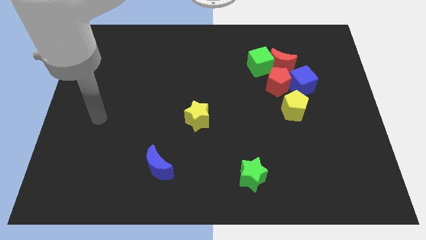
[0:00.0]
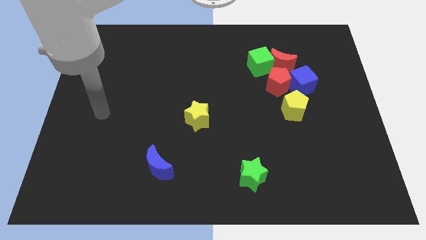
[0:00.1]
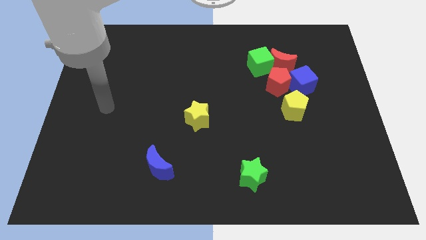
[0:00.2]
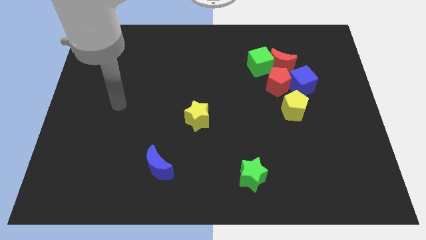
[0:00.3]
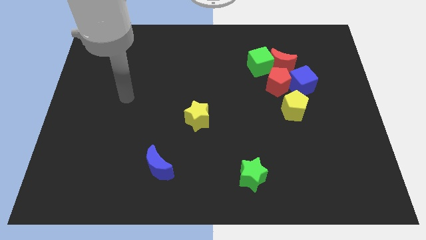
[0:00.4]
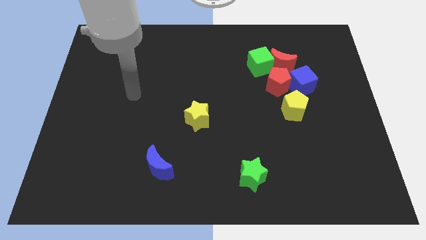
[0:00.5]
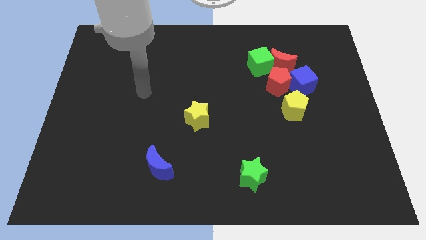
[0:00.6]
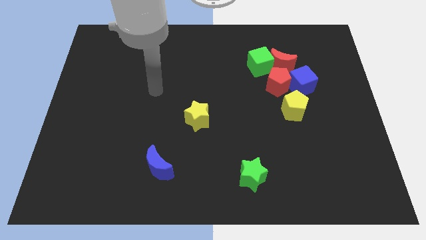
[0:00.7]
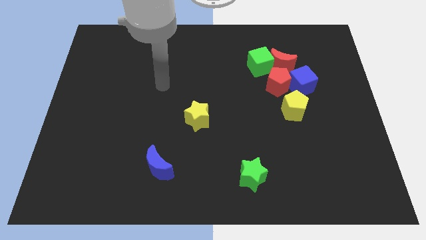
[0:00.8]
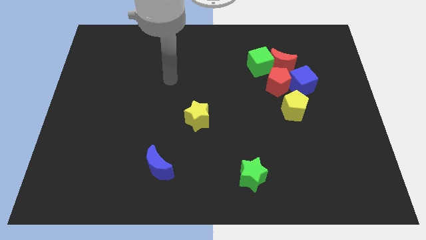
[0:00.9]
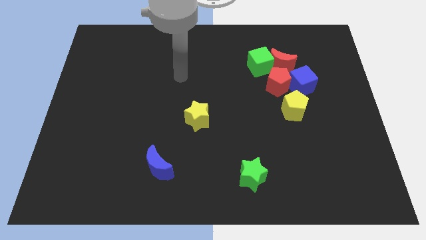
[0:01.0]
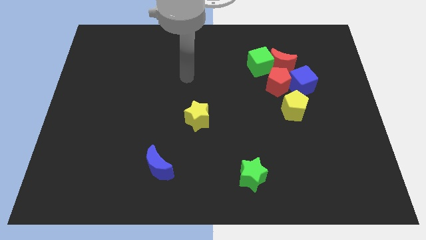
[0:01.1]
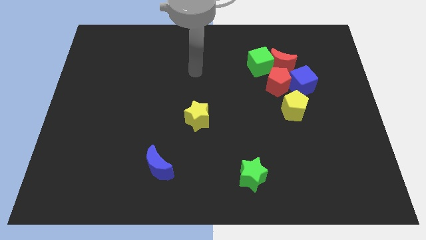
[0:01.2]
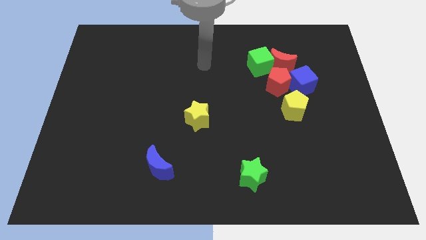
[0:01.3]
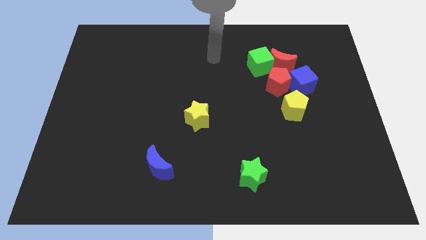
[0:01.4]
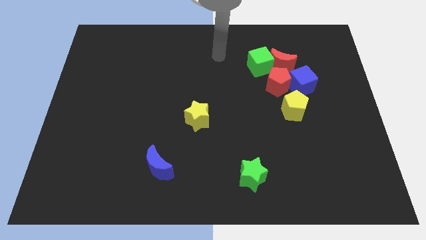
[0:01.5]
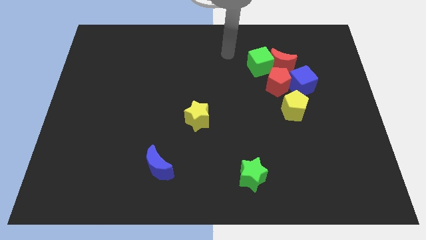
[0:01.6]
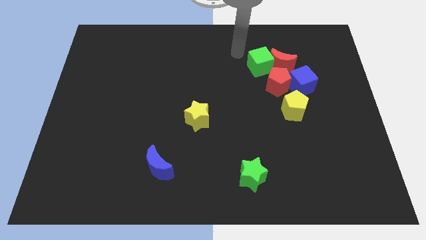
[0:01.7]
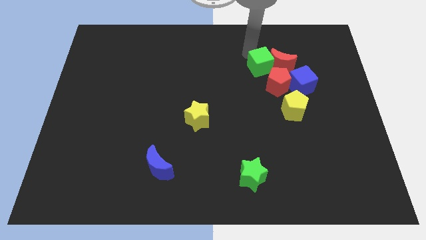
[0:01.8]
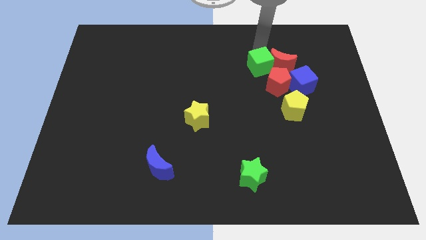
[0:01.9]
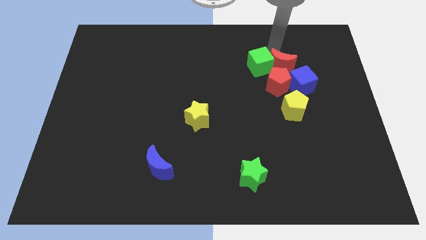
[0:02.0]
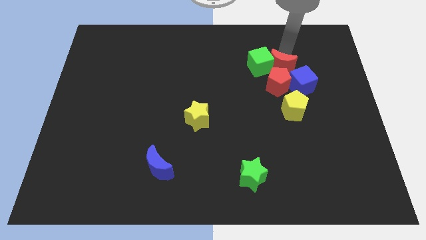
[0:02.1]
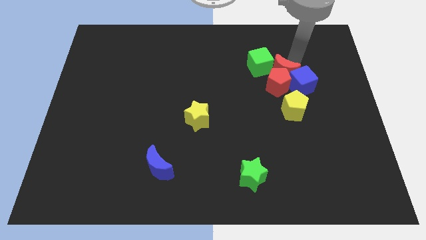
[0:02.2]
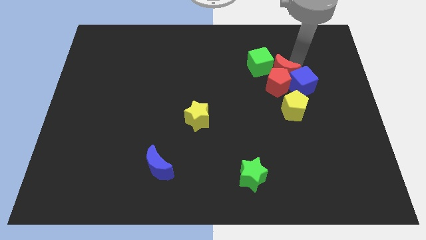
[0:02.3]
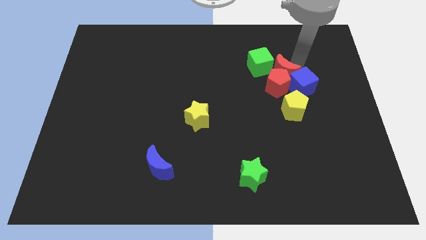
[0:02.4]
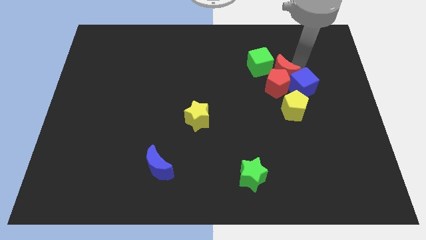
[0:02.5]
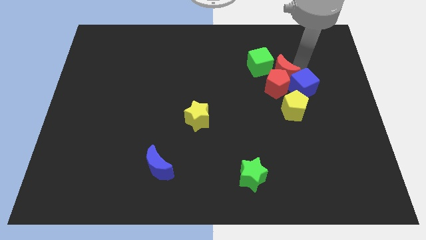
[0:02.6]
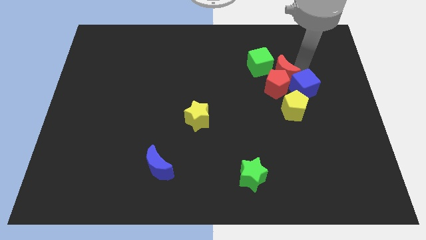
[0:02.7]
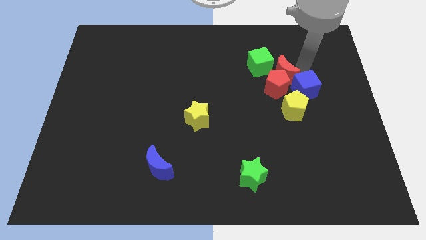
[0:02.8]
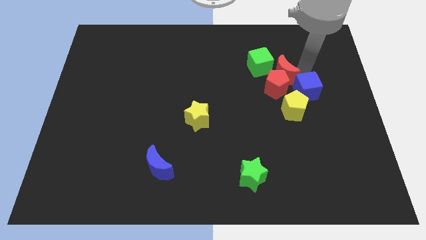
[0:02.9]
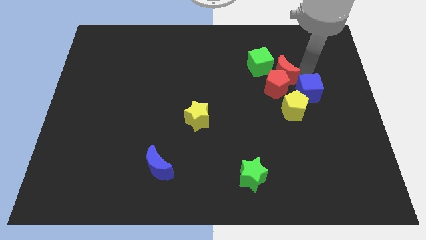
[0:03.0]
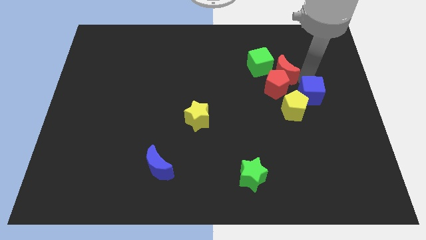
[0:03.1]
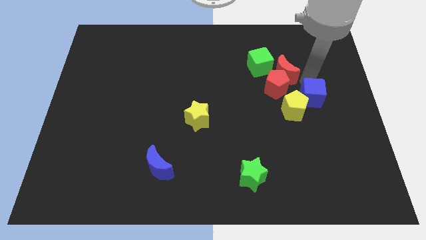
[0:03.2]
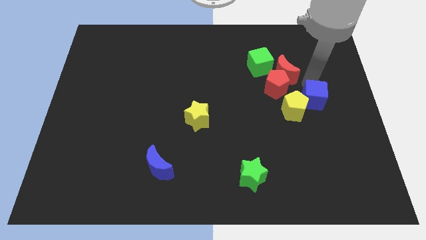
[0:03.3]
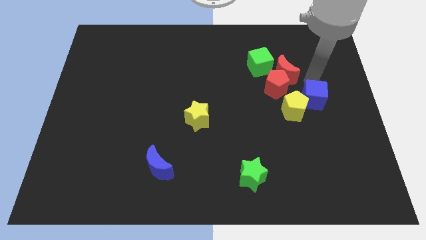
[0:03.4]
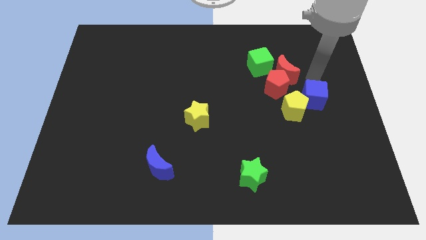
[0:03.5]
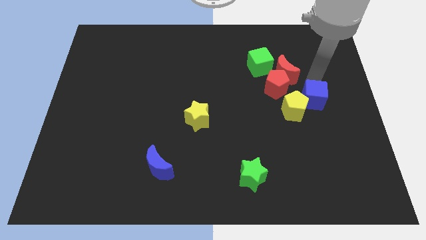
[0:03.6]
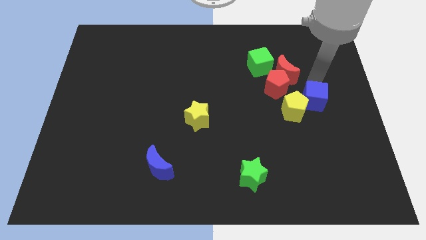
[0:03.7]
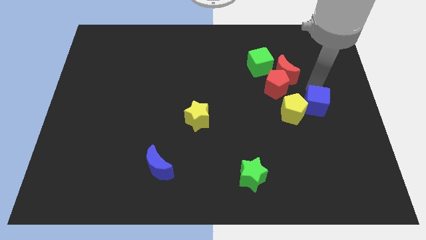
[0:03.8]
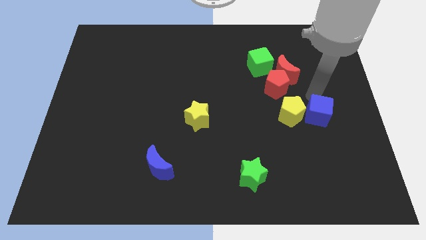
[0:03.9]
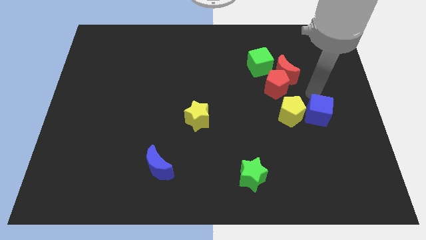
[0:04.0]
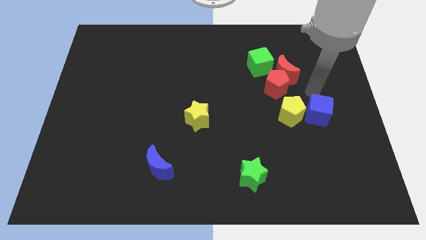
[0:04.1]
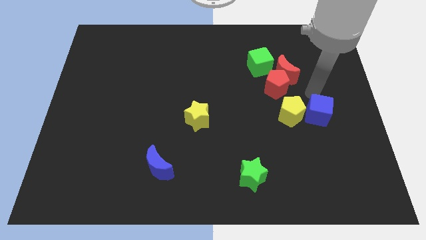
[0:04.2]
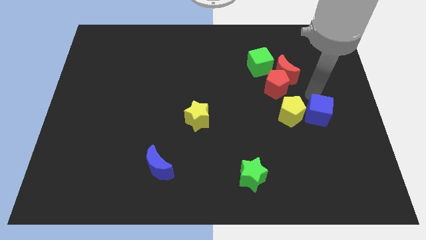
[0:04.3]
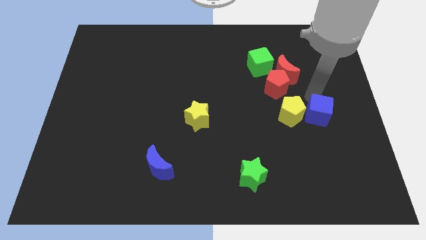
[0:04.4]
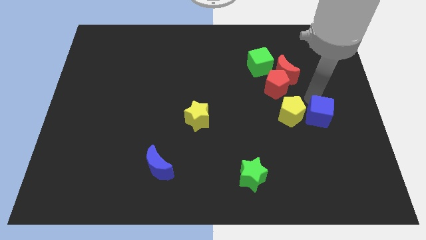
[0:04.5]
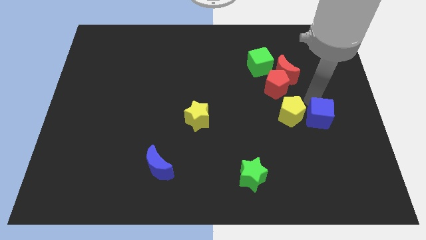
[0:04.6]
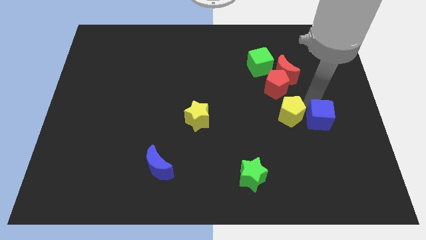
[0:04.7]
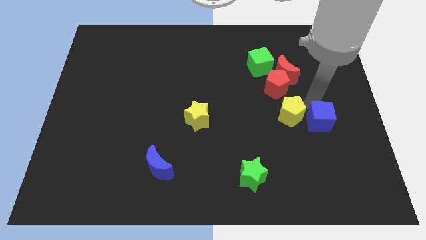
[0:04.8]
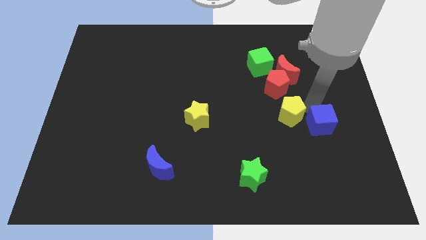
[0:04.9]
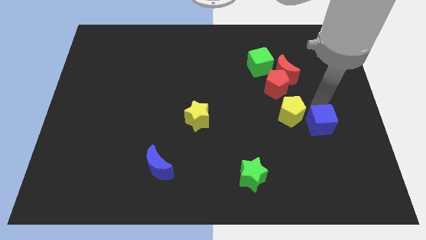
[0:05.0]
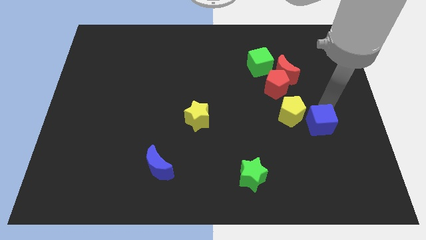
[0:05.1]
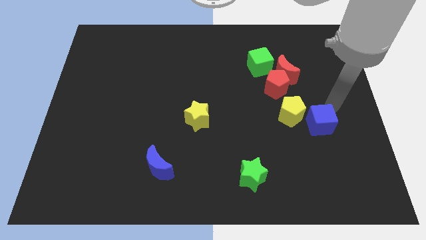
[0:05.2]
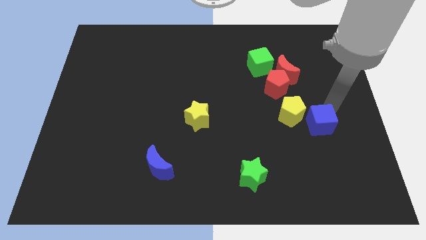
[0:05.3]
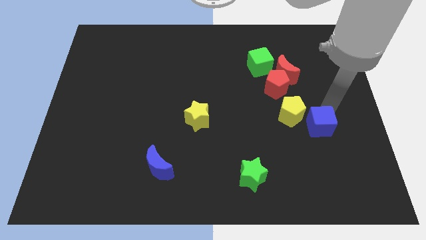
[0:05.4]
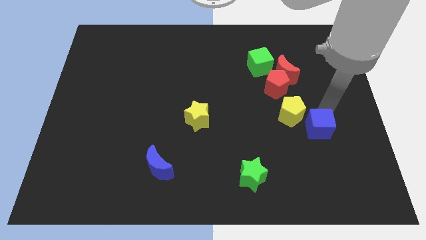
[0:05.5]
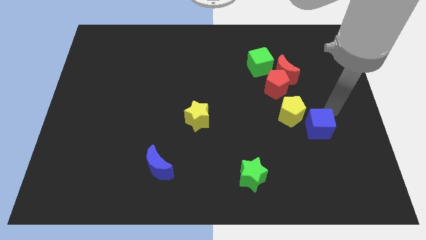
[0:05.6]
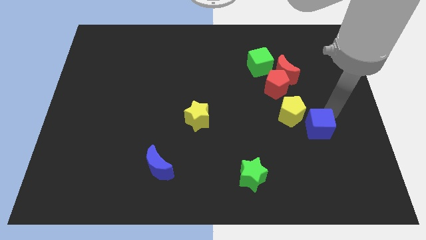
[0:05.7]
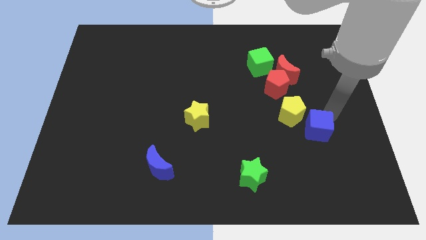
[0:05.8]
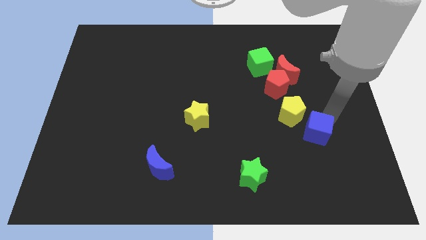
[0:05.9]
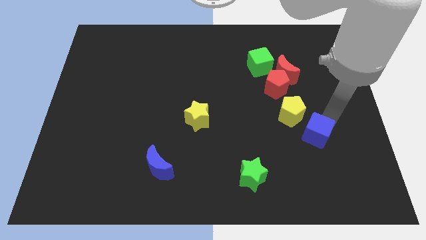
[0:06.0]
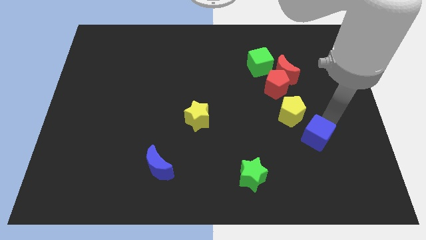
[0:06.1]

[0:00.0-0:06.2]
put the blue cube to the bottom of the yellow pentagon

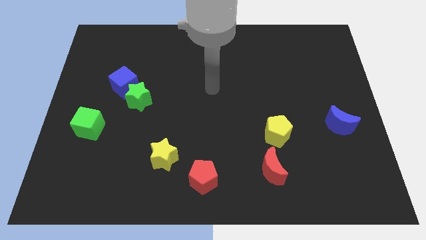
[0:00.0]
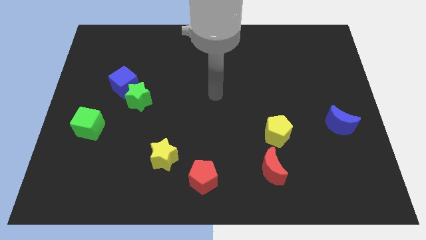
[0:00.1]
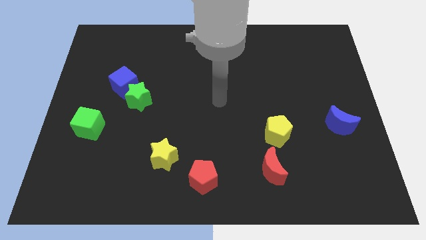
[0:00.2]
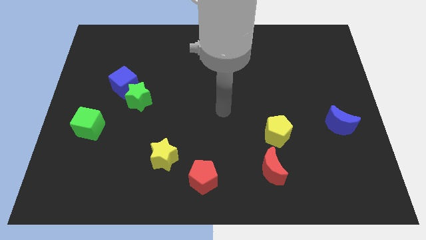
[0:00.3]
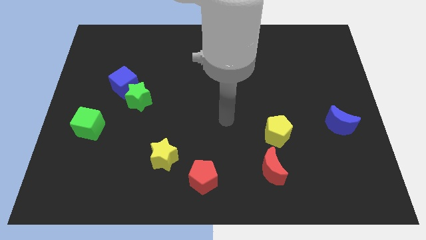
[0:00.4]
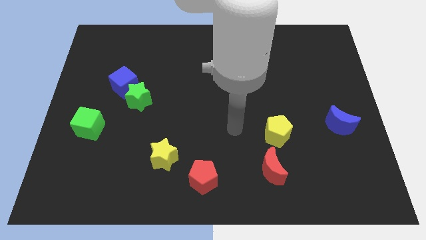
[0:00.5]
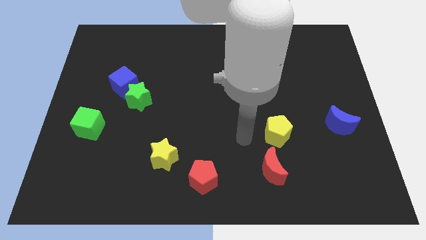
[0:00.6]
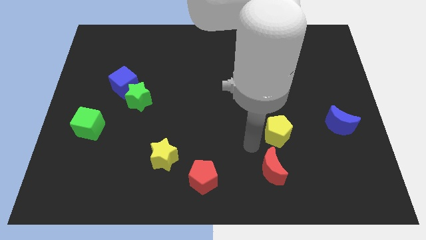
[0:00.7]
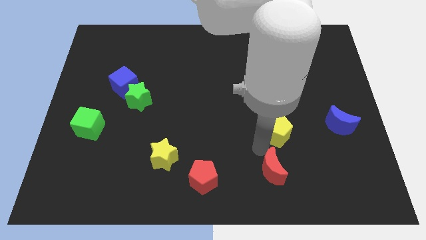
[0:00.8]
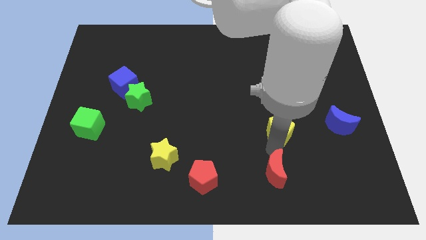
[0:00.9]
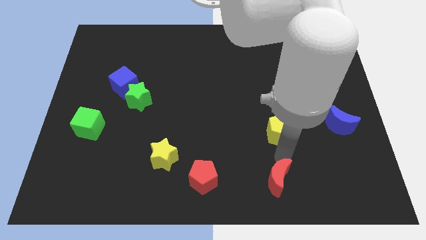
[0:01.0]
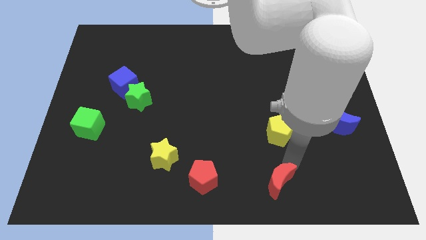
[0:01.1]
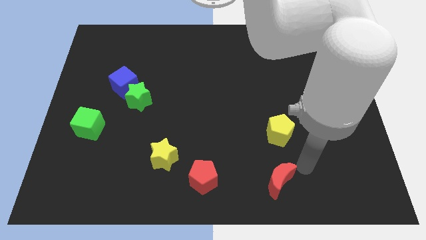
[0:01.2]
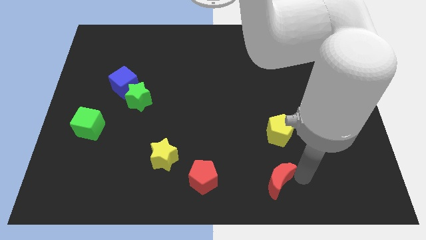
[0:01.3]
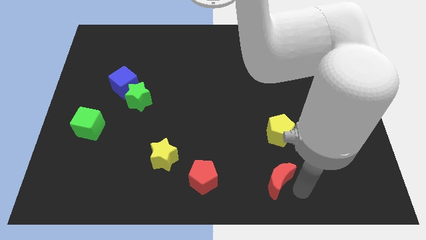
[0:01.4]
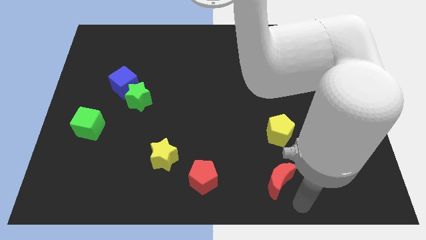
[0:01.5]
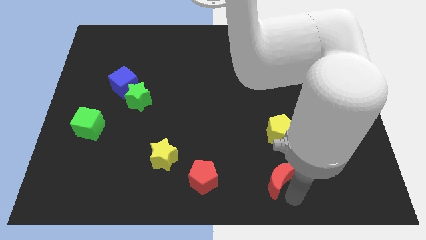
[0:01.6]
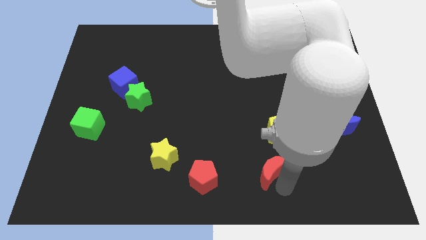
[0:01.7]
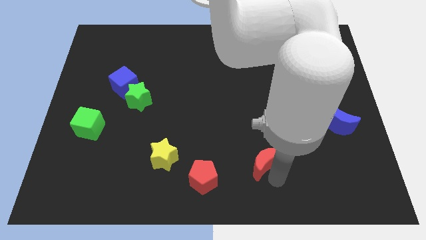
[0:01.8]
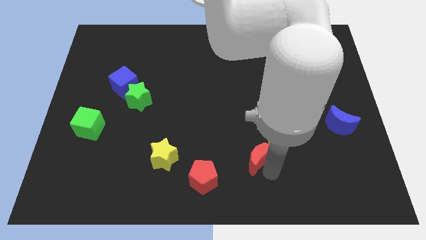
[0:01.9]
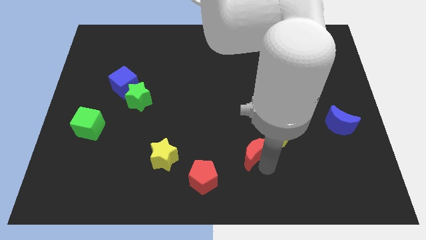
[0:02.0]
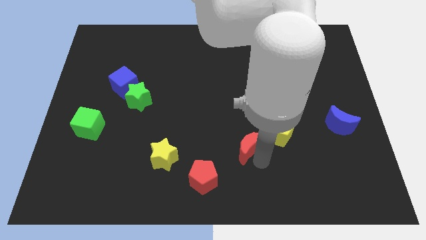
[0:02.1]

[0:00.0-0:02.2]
move the red moon just left of the yellow pentagon
